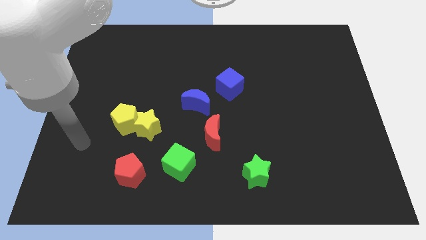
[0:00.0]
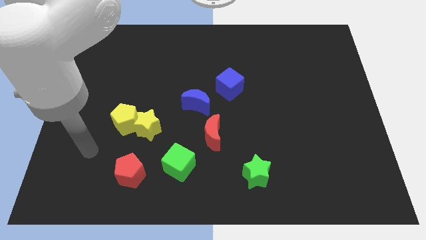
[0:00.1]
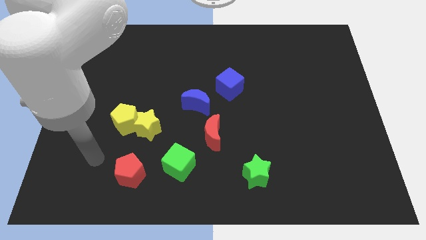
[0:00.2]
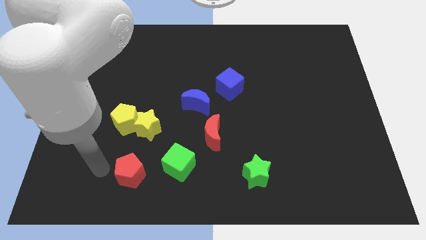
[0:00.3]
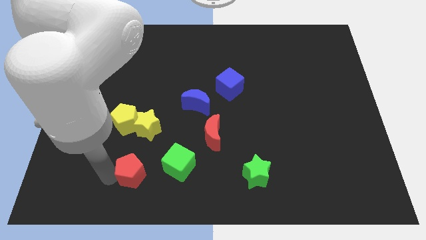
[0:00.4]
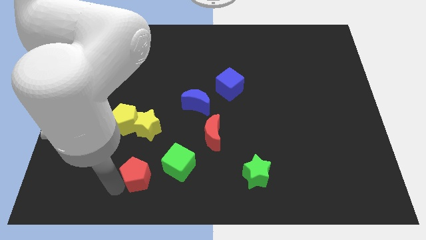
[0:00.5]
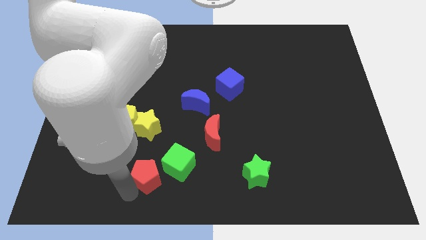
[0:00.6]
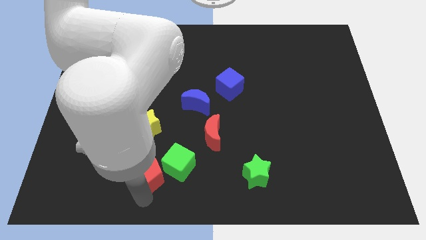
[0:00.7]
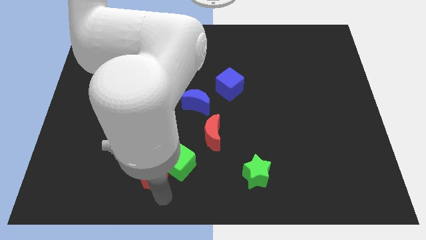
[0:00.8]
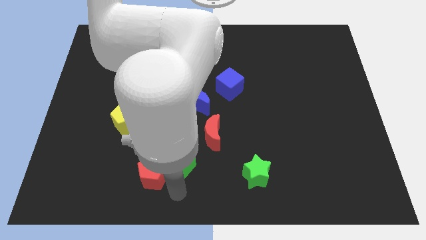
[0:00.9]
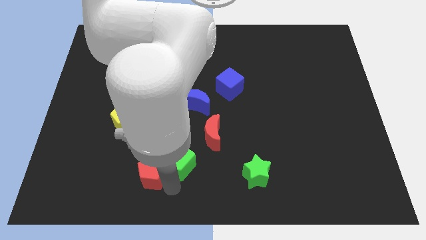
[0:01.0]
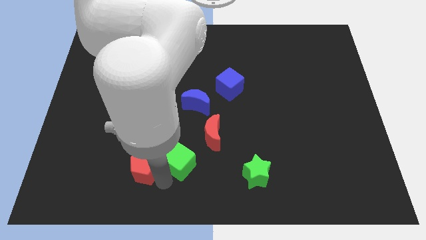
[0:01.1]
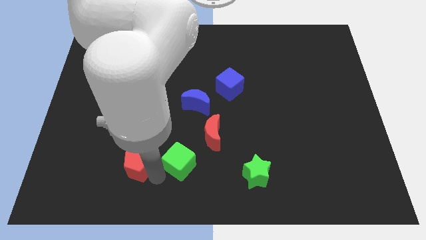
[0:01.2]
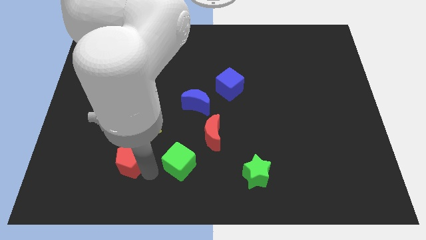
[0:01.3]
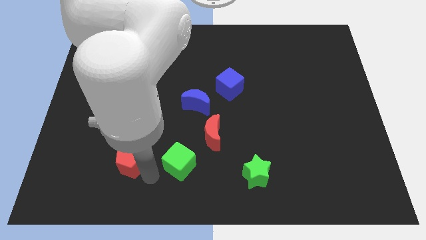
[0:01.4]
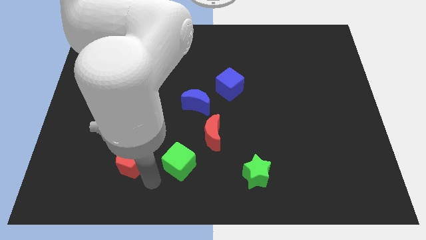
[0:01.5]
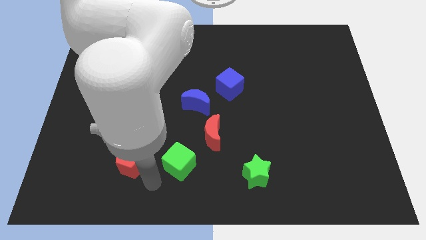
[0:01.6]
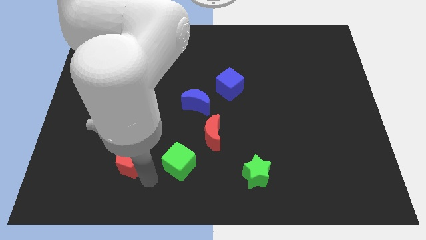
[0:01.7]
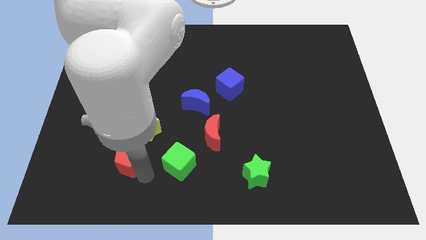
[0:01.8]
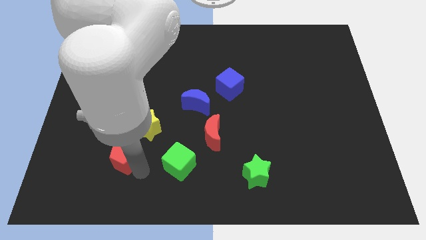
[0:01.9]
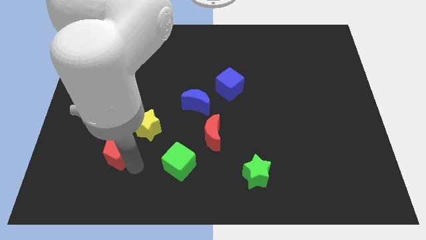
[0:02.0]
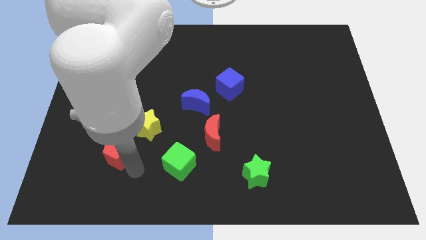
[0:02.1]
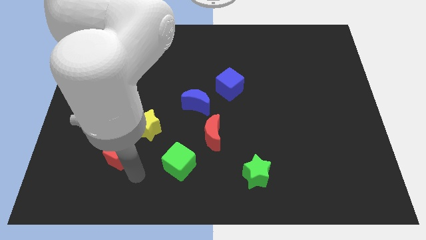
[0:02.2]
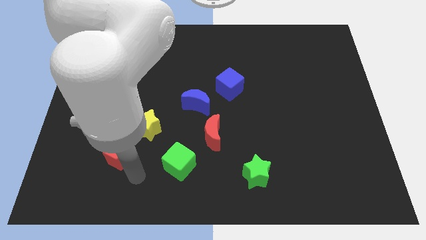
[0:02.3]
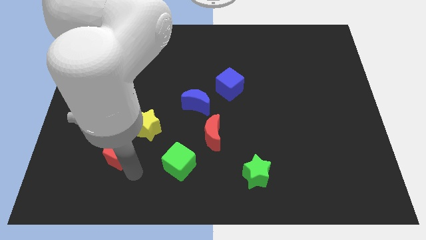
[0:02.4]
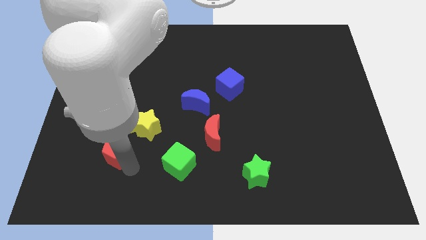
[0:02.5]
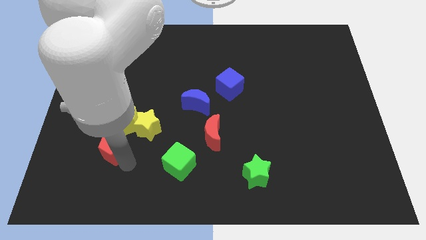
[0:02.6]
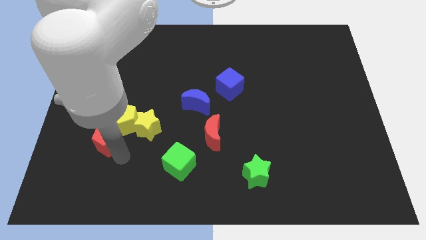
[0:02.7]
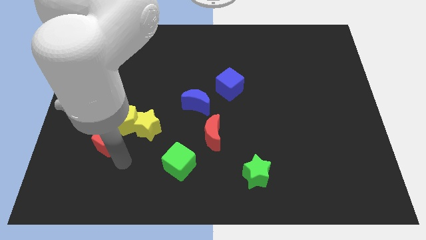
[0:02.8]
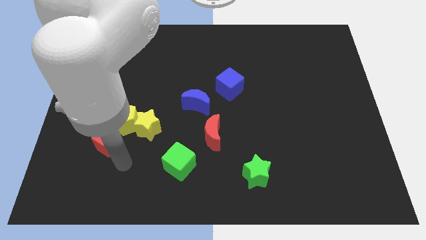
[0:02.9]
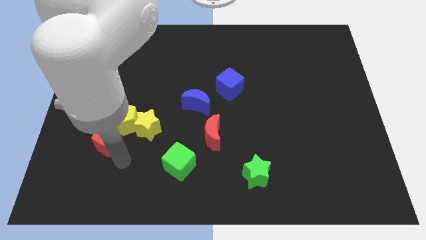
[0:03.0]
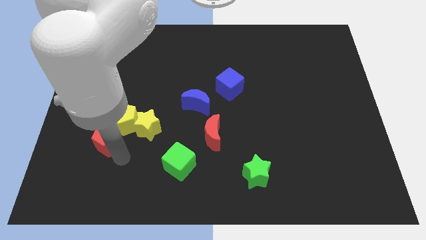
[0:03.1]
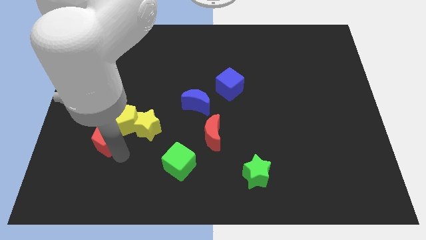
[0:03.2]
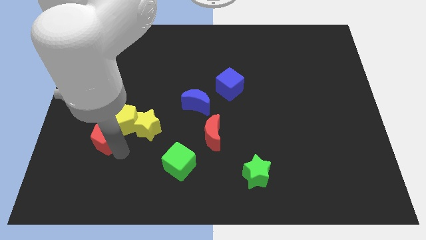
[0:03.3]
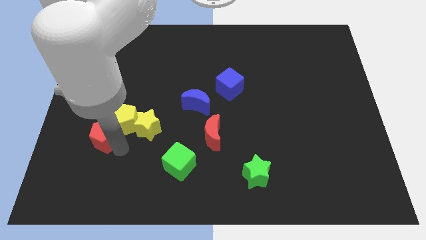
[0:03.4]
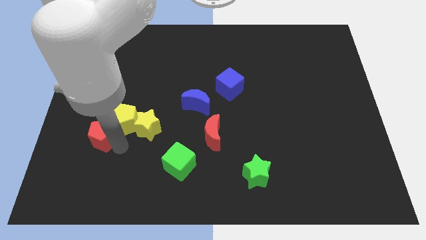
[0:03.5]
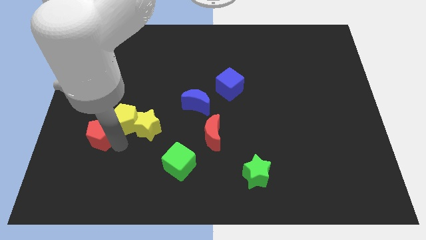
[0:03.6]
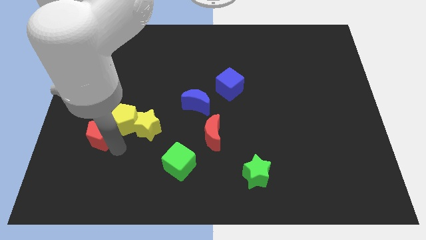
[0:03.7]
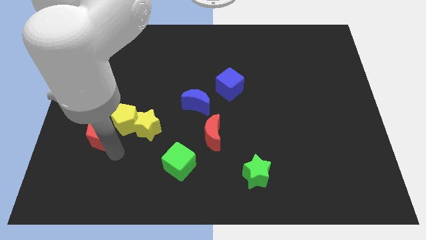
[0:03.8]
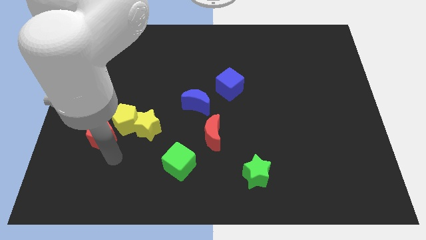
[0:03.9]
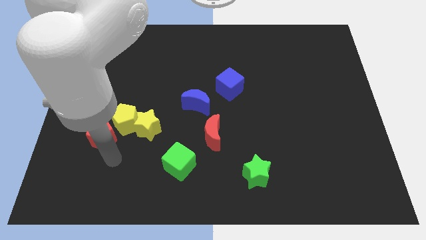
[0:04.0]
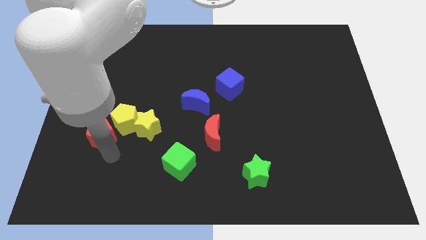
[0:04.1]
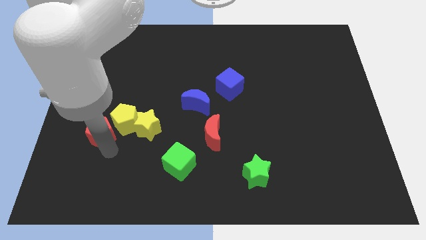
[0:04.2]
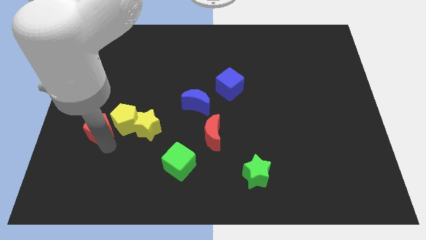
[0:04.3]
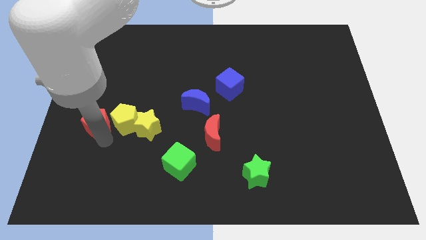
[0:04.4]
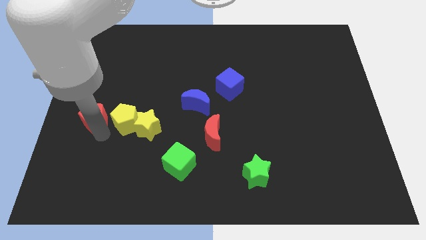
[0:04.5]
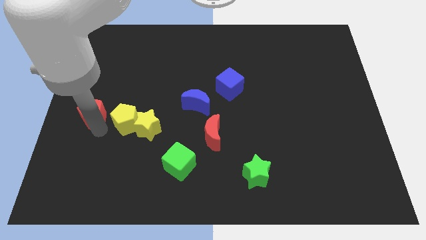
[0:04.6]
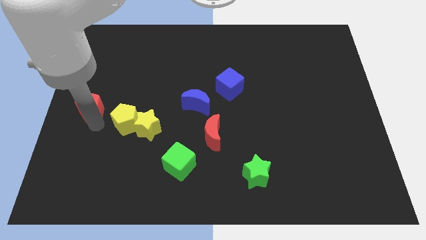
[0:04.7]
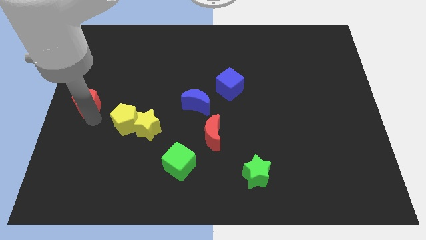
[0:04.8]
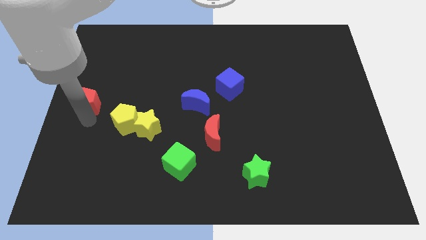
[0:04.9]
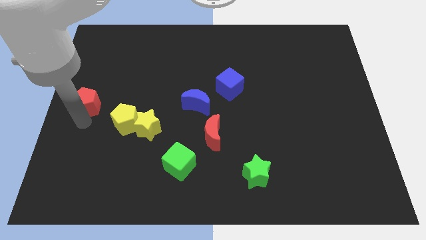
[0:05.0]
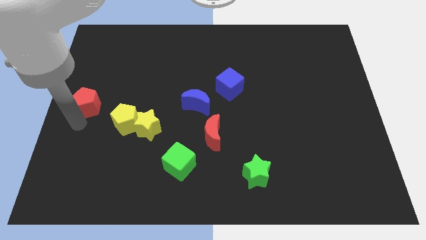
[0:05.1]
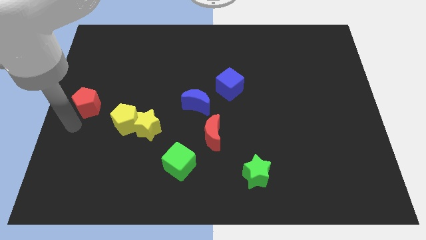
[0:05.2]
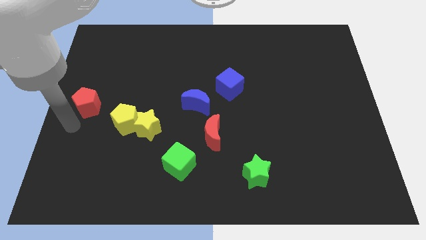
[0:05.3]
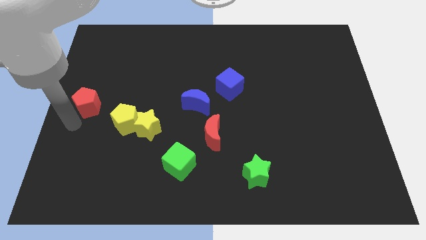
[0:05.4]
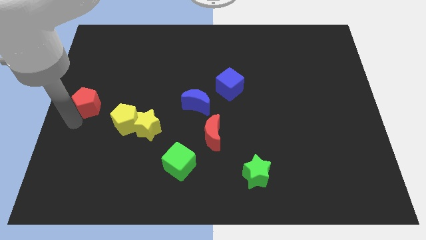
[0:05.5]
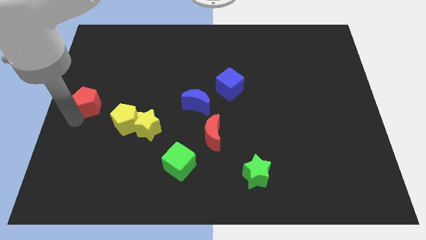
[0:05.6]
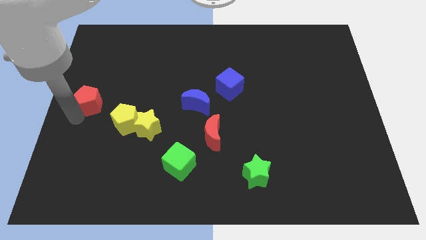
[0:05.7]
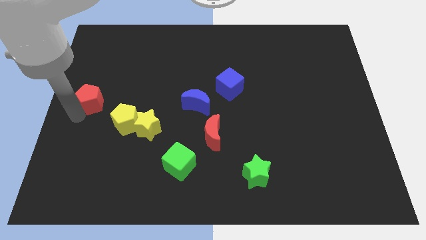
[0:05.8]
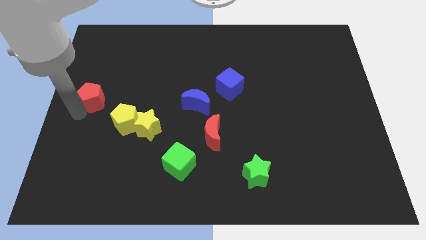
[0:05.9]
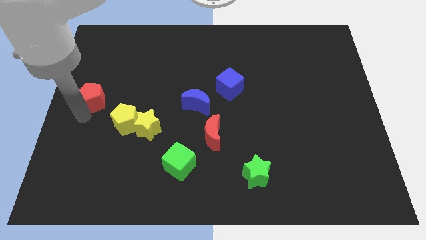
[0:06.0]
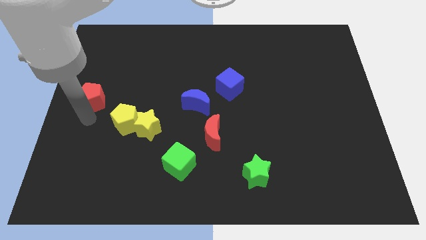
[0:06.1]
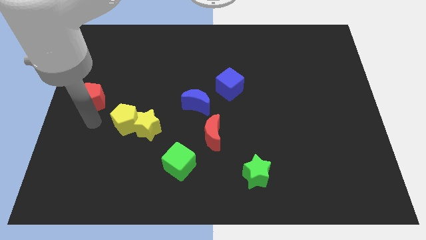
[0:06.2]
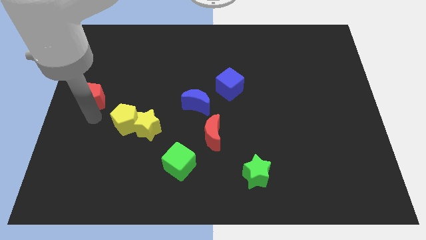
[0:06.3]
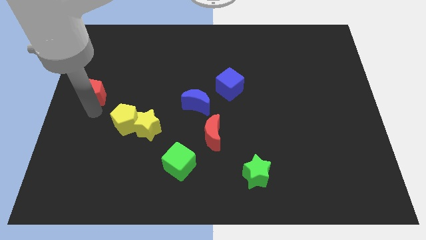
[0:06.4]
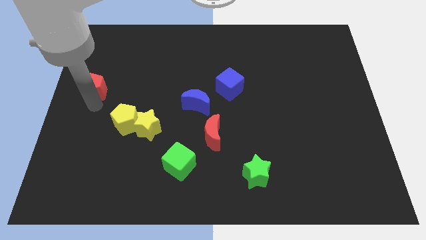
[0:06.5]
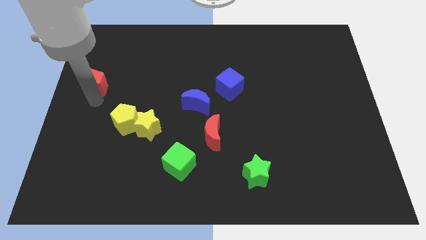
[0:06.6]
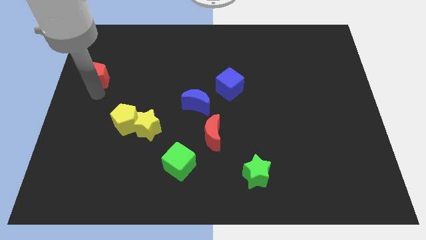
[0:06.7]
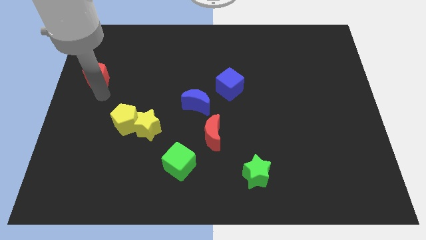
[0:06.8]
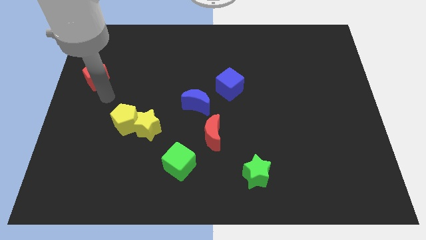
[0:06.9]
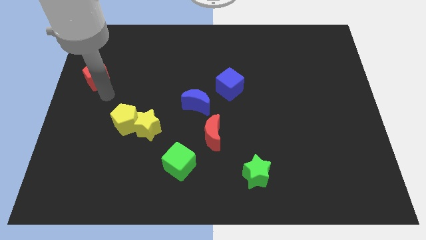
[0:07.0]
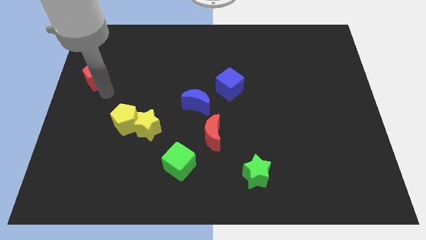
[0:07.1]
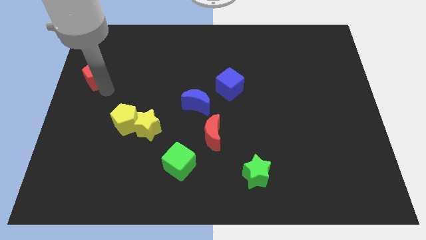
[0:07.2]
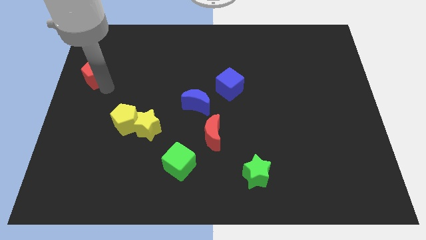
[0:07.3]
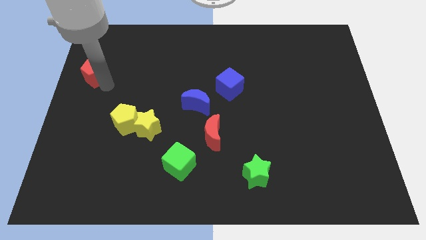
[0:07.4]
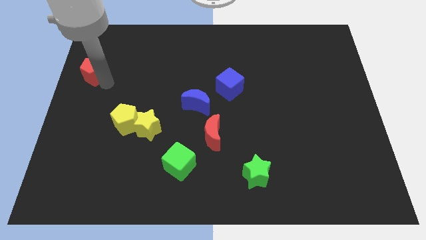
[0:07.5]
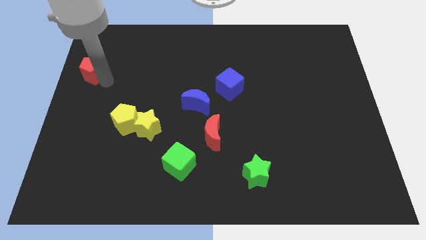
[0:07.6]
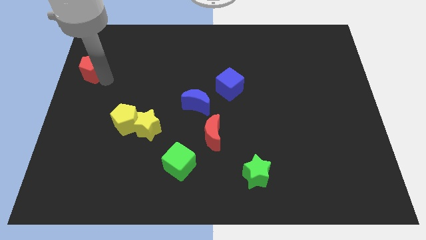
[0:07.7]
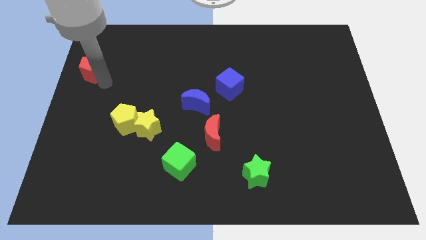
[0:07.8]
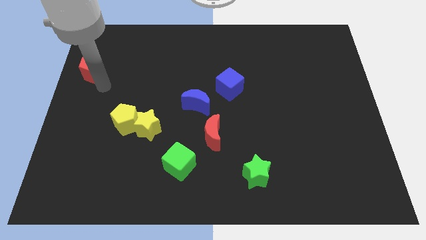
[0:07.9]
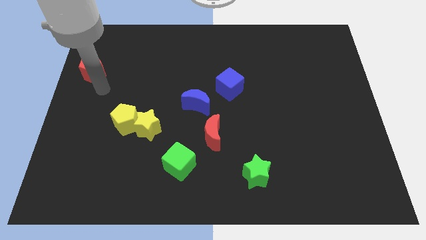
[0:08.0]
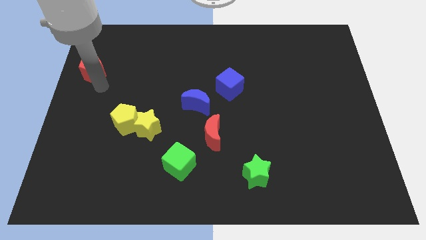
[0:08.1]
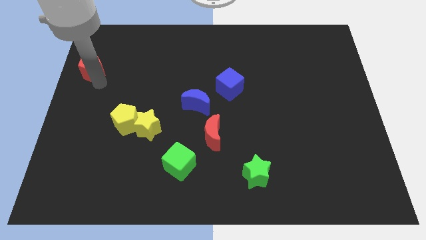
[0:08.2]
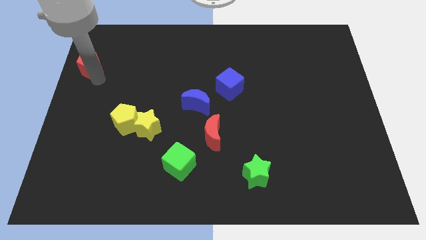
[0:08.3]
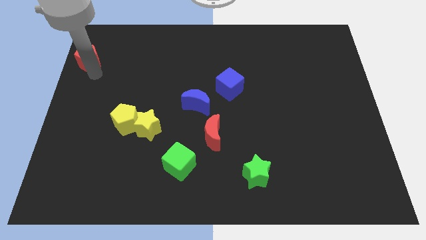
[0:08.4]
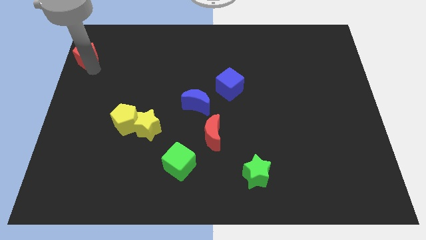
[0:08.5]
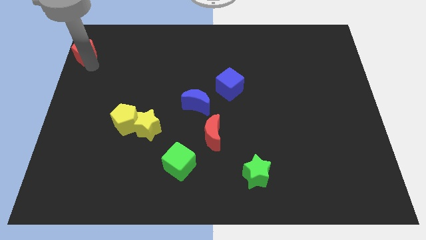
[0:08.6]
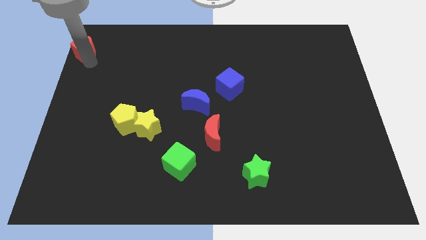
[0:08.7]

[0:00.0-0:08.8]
move the red pentagon to the upper left corner
